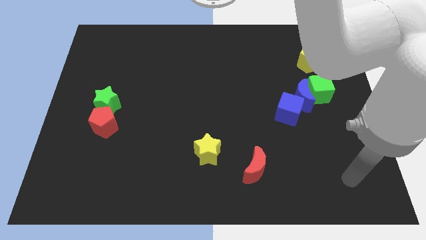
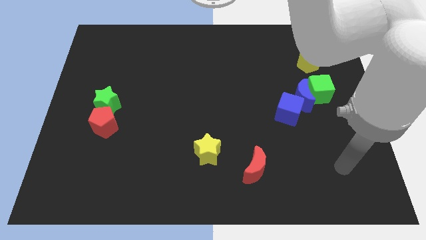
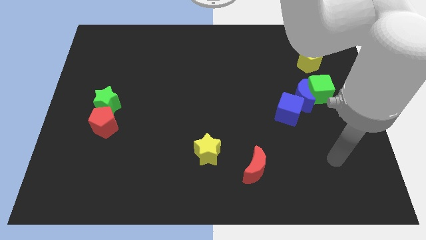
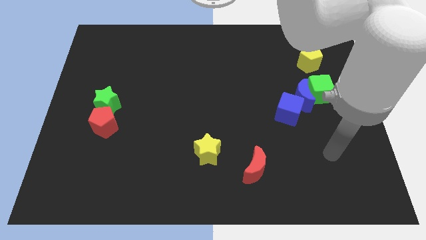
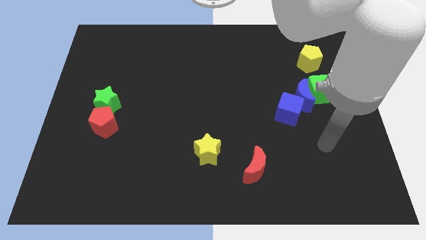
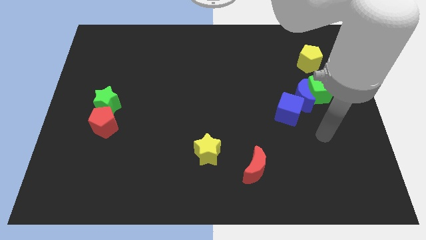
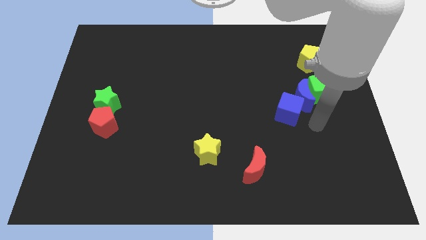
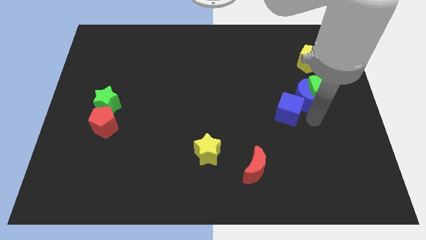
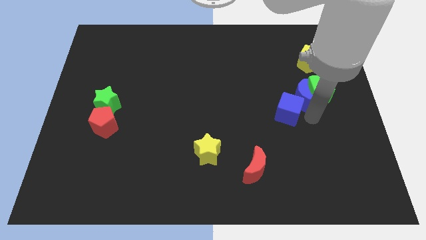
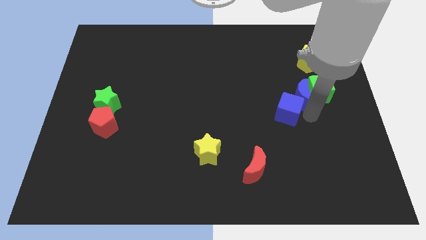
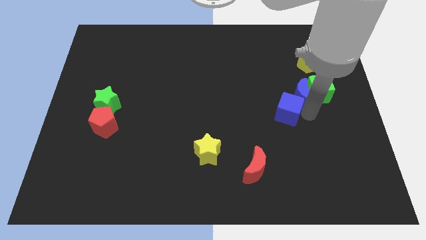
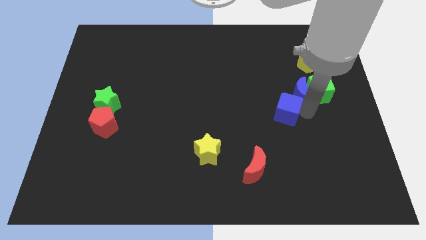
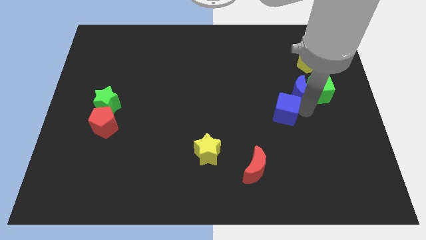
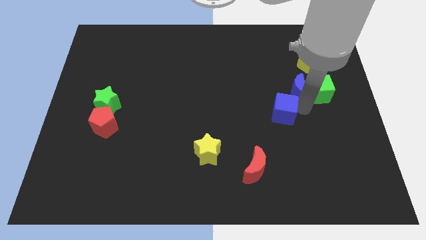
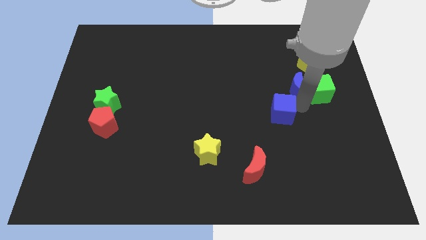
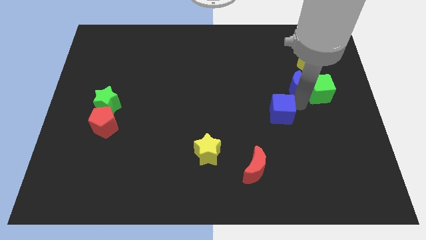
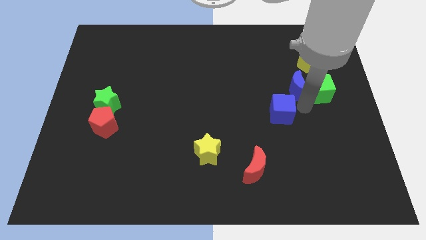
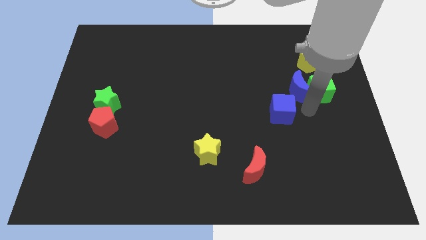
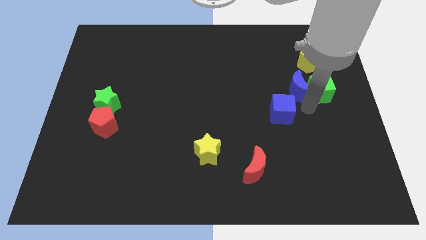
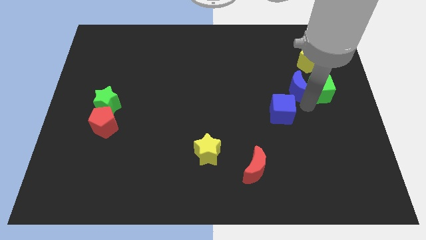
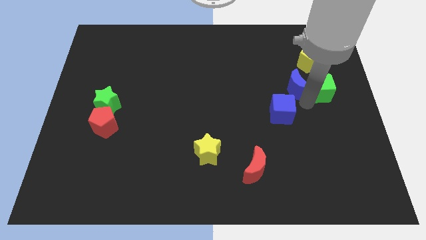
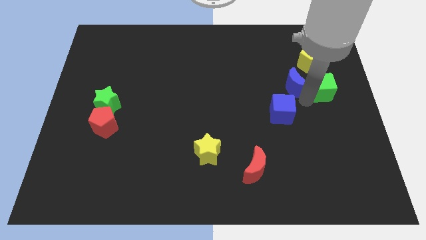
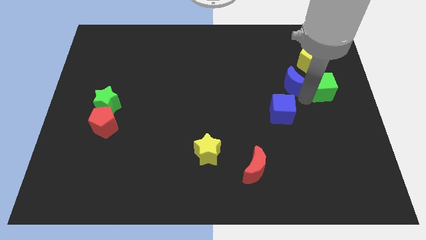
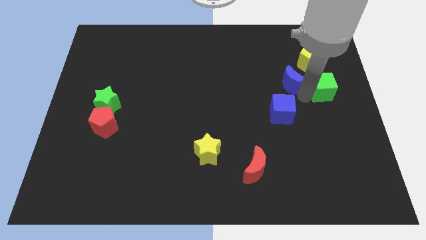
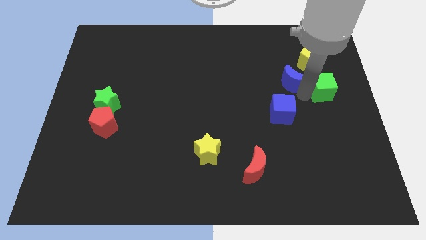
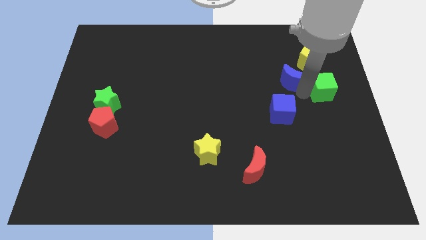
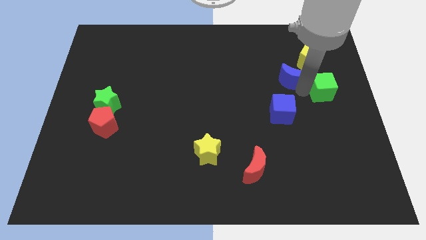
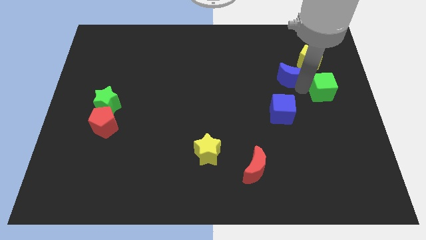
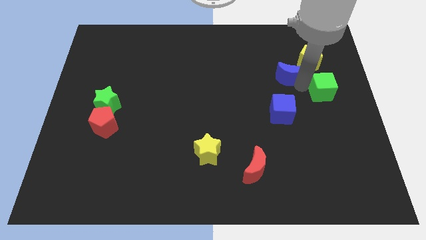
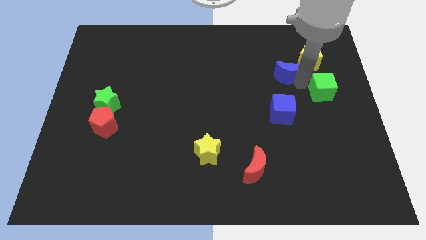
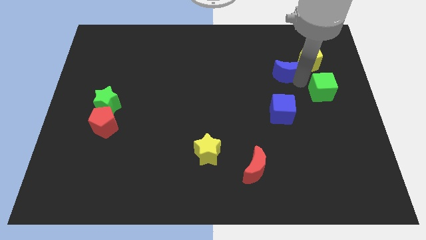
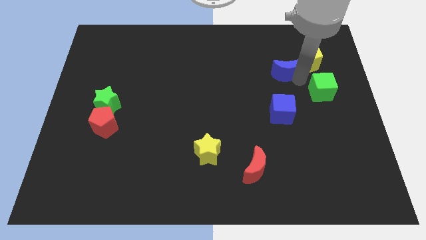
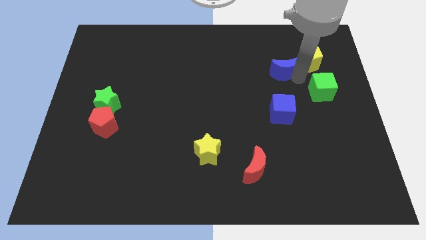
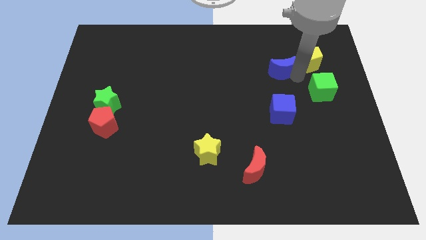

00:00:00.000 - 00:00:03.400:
move the blue moon away from the green cube and blue cube

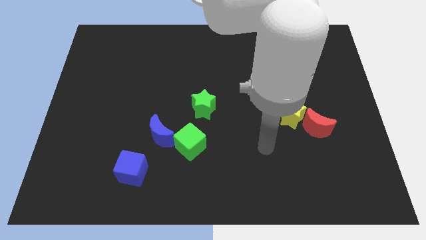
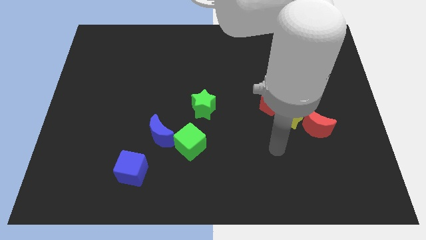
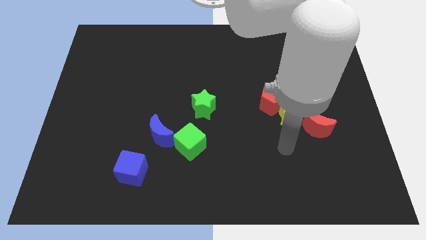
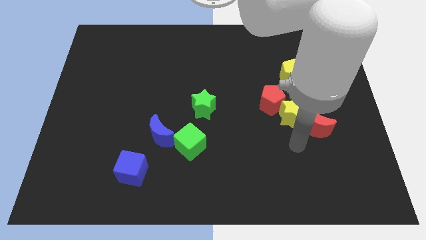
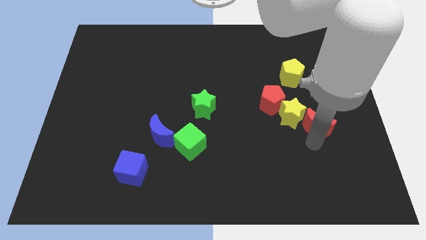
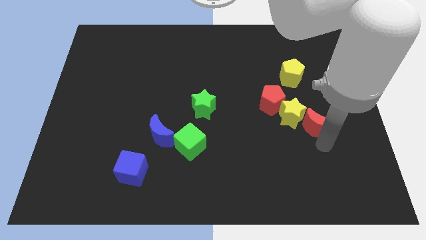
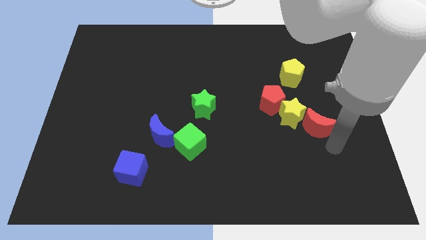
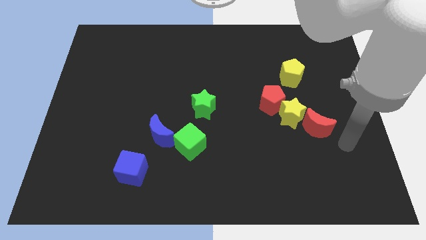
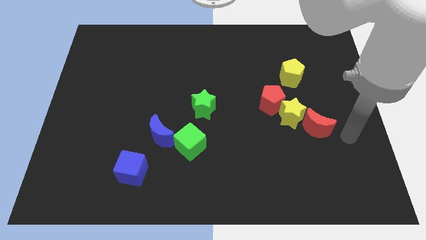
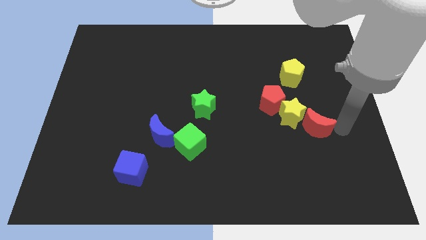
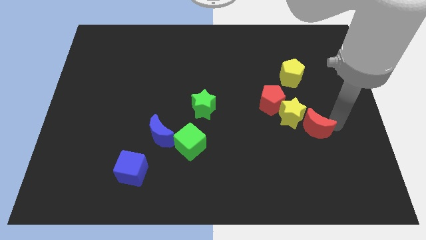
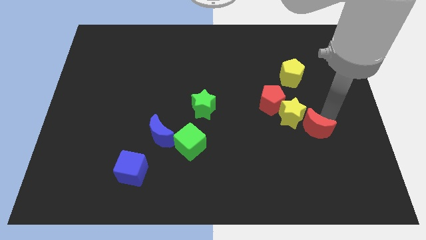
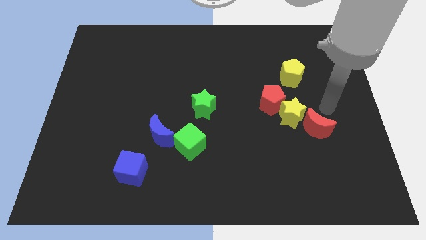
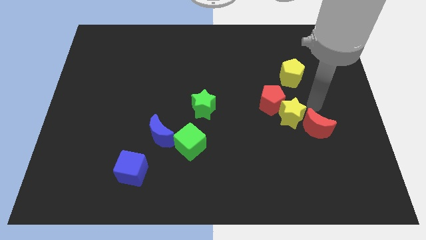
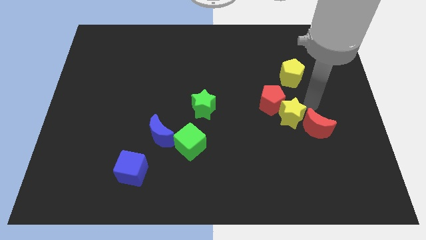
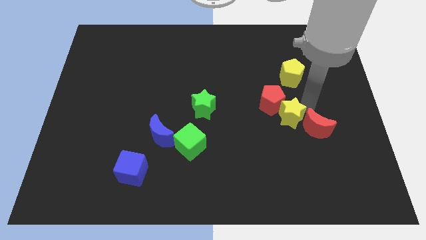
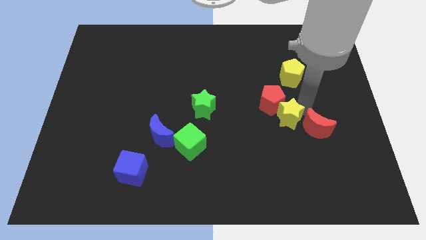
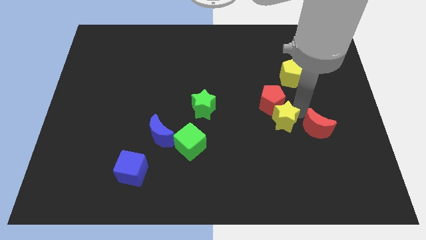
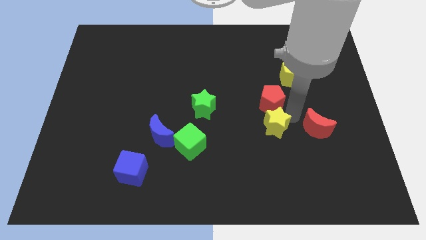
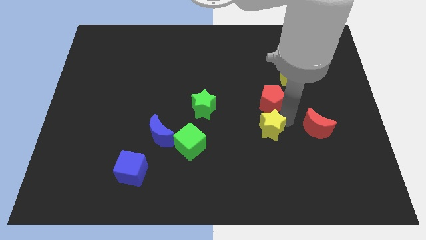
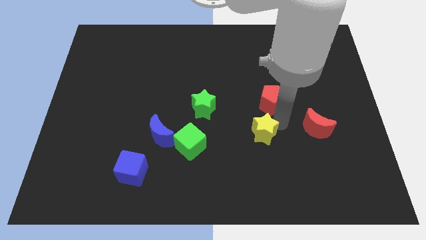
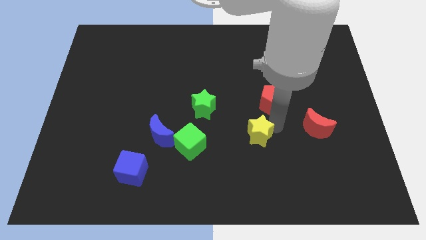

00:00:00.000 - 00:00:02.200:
separate the yellow star from the red pentagon and red moon

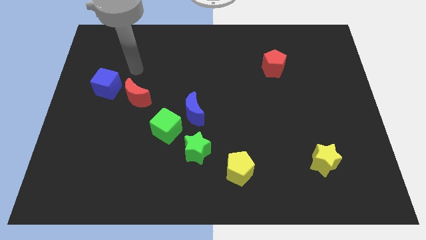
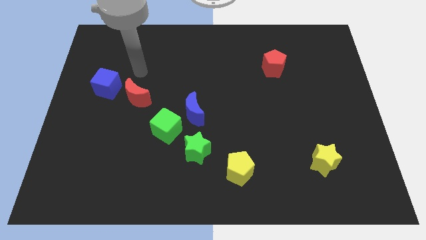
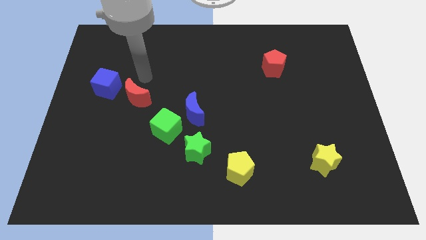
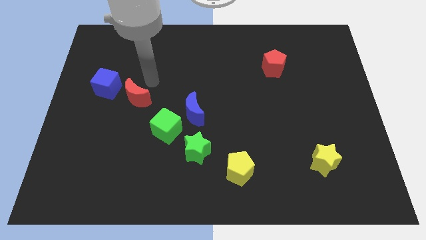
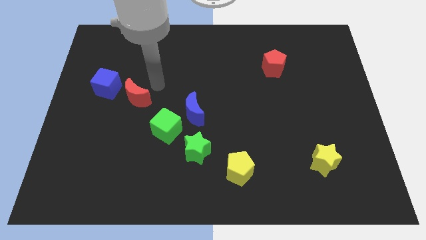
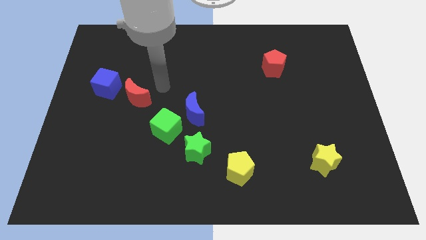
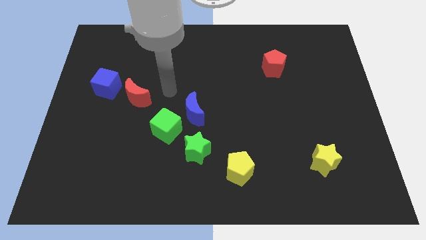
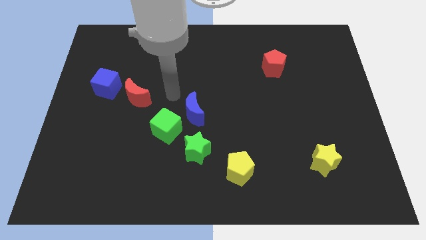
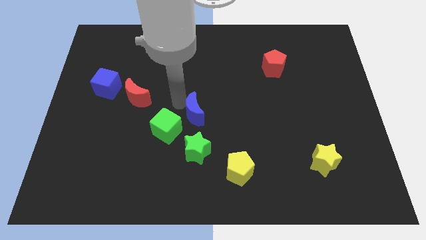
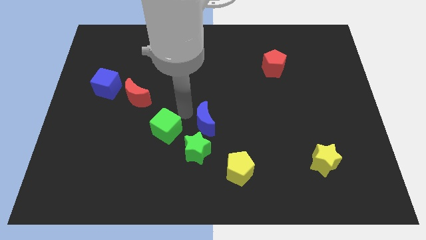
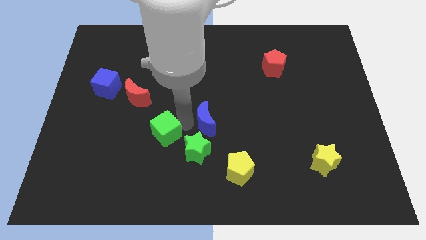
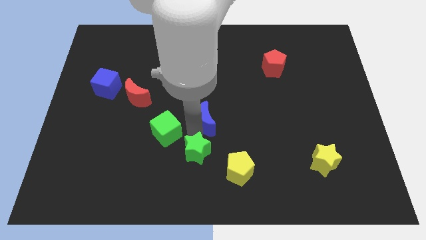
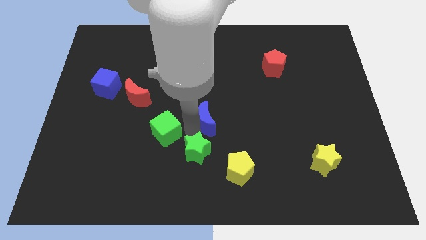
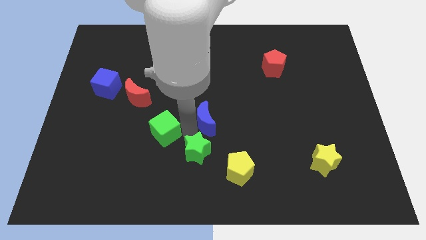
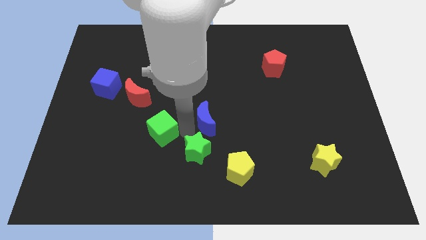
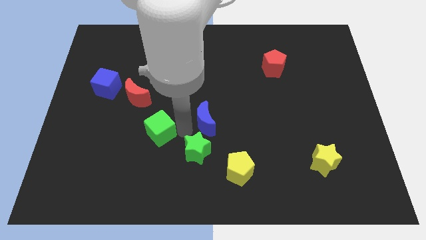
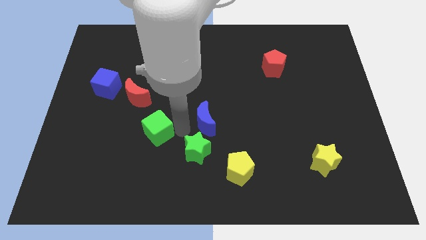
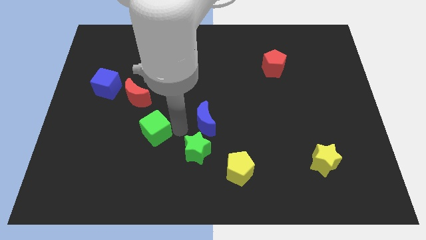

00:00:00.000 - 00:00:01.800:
move the green cube away from the blue moon and green star

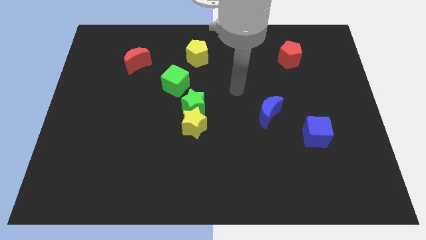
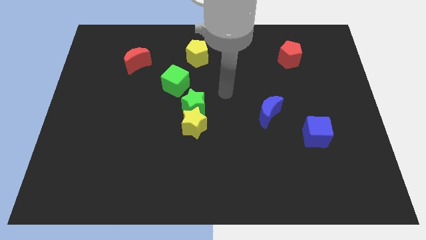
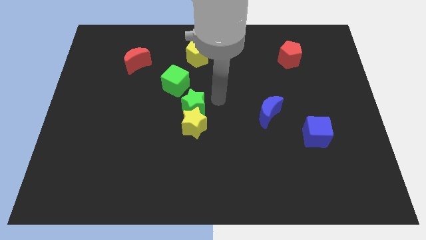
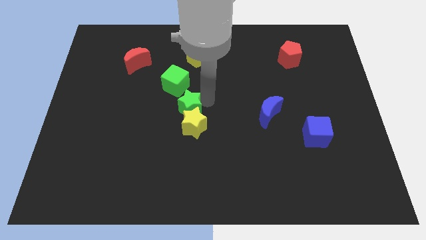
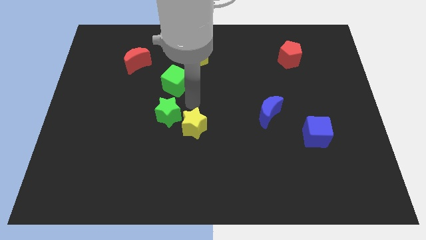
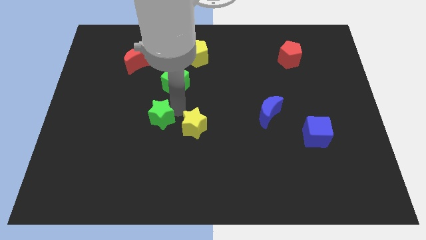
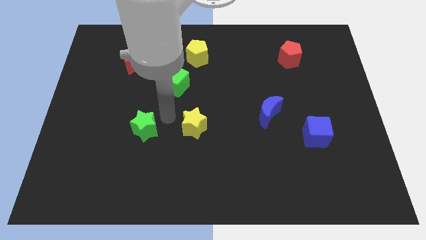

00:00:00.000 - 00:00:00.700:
move the yellow star away from the green star

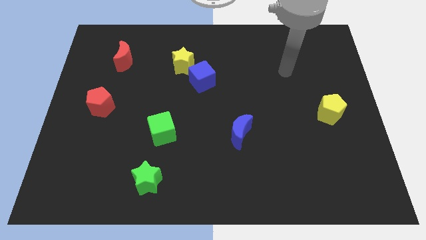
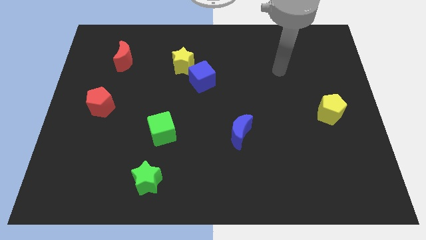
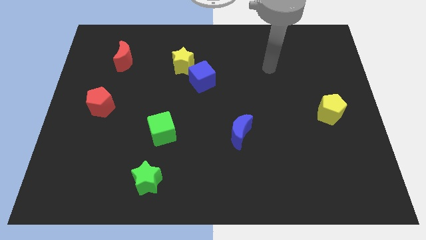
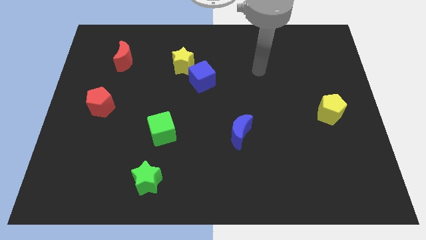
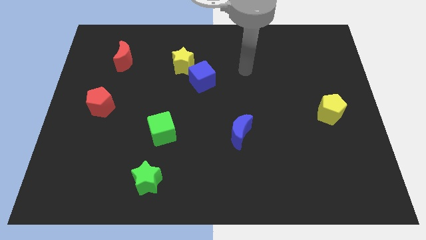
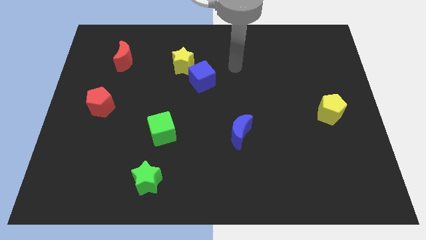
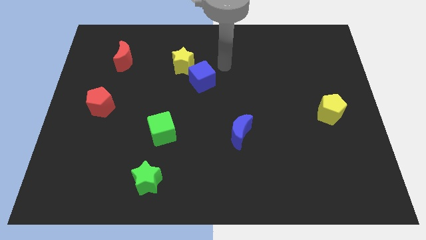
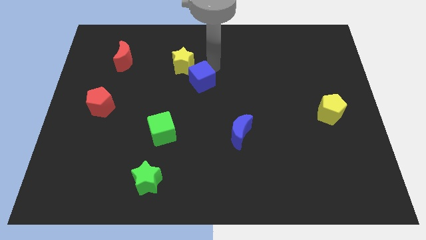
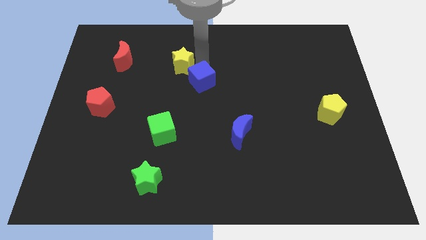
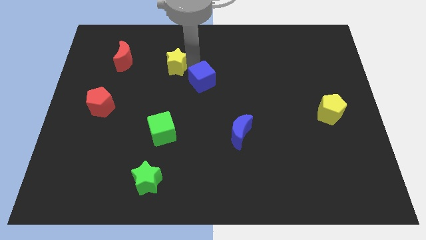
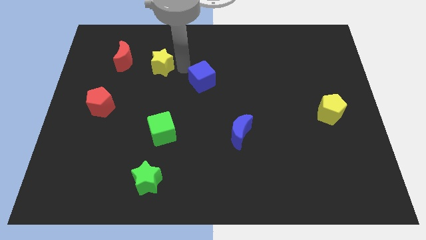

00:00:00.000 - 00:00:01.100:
separate the blue cube from the yellow star

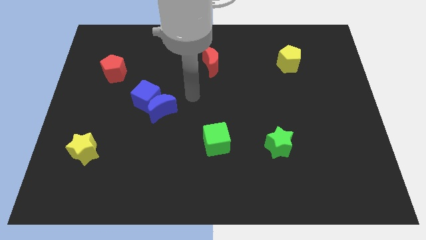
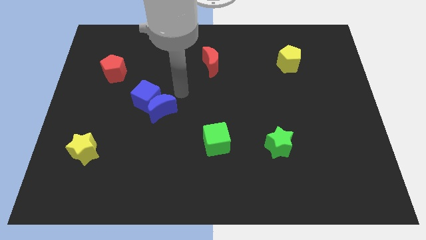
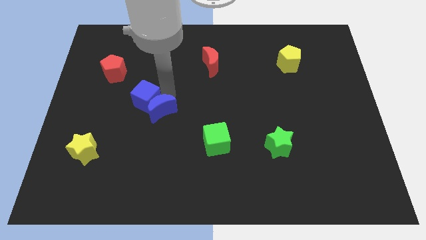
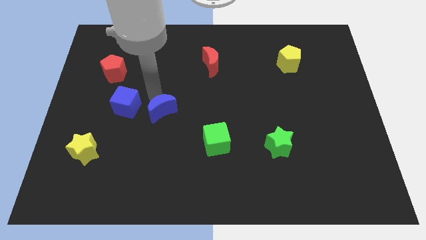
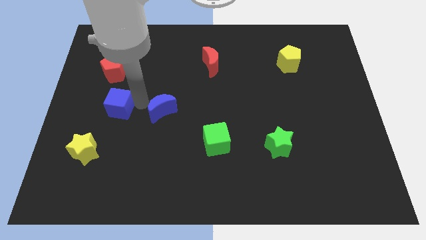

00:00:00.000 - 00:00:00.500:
pull the blue moon apart from the blue cube
